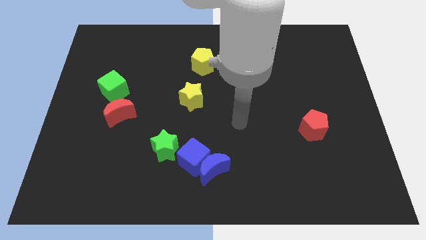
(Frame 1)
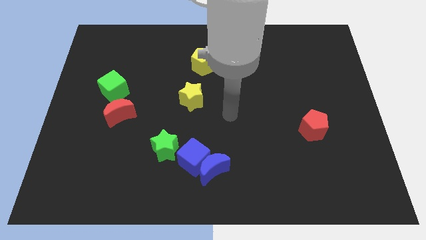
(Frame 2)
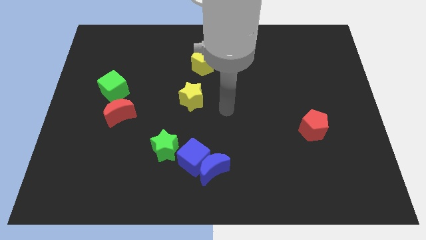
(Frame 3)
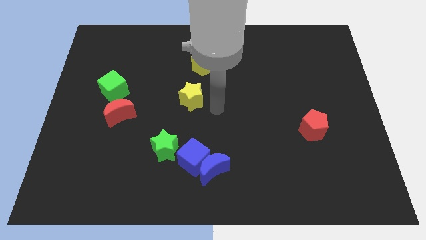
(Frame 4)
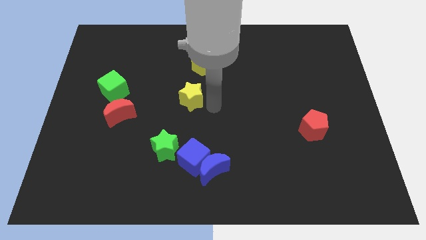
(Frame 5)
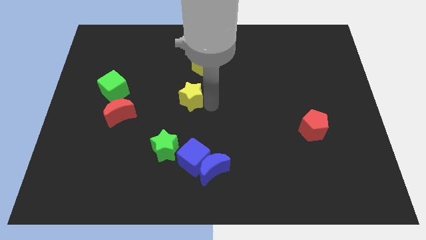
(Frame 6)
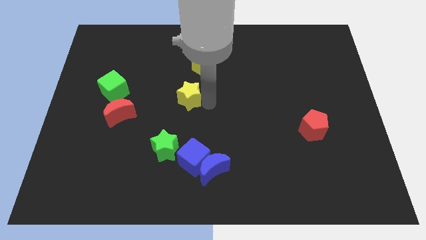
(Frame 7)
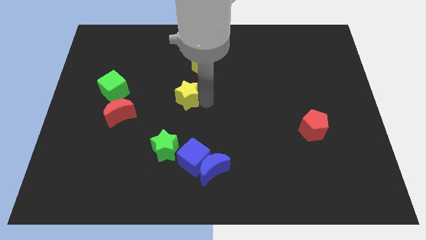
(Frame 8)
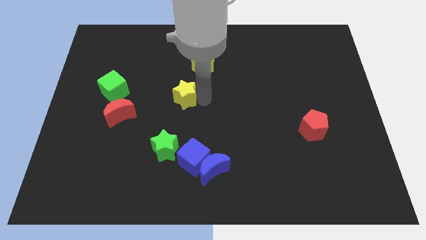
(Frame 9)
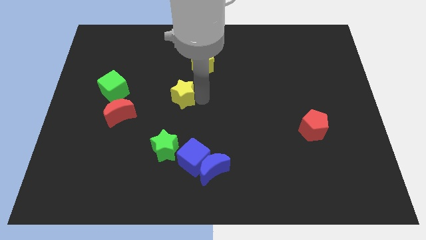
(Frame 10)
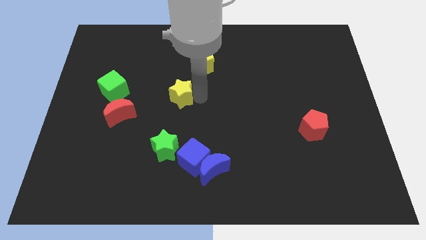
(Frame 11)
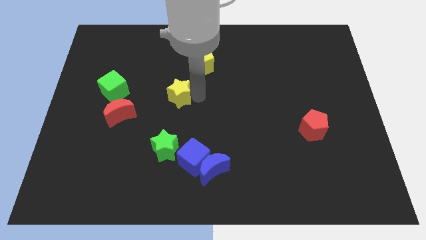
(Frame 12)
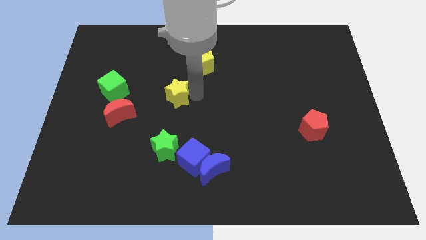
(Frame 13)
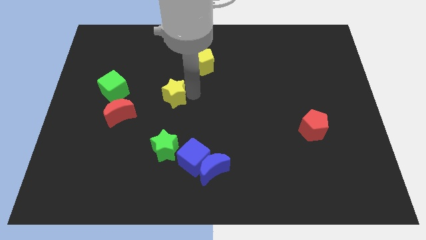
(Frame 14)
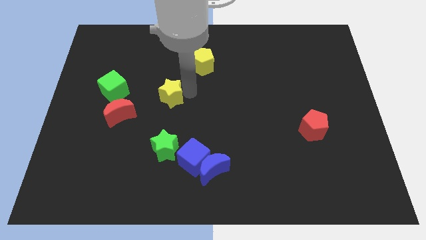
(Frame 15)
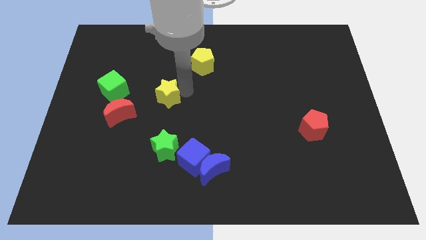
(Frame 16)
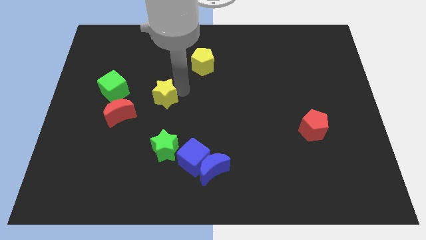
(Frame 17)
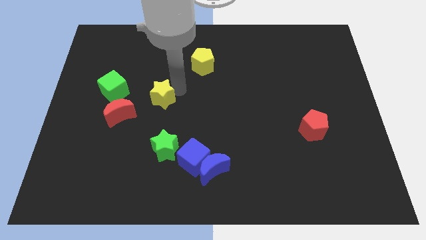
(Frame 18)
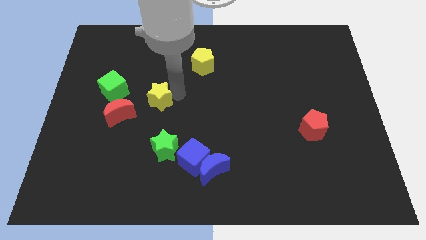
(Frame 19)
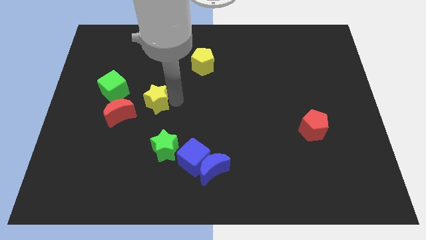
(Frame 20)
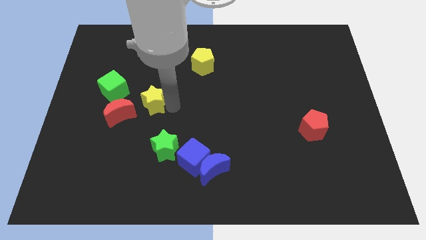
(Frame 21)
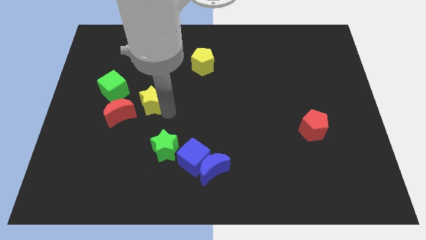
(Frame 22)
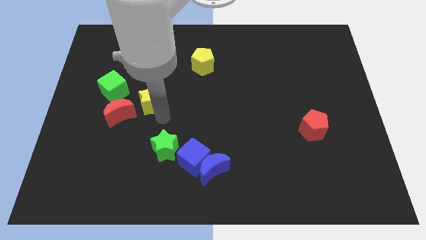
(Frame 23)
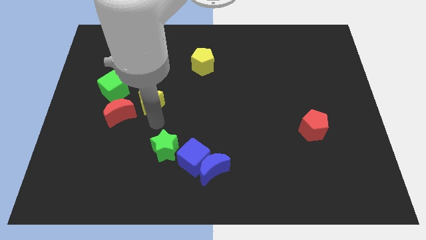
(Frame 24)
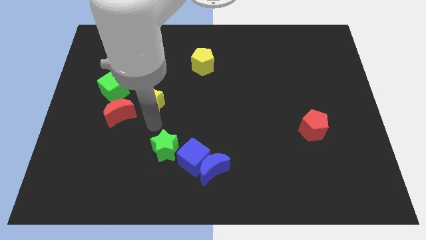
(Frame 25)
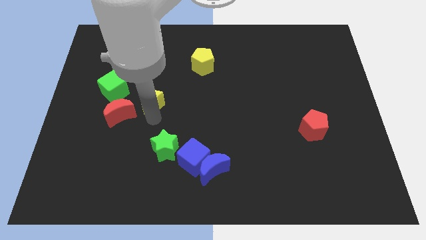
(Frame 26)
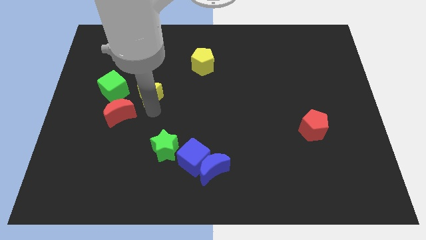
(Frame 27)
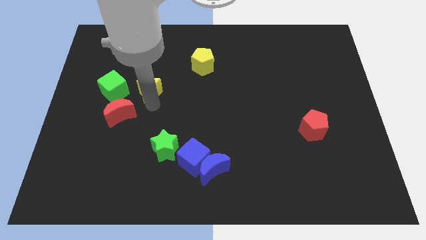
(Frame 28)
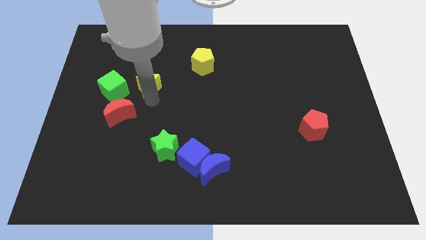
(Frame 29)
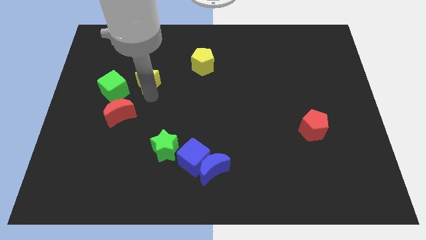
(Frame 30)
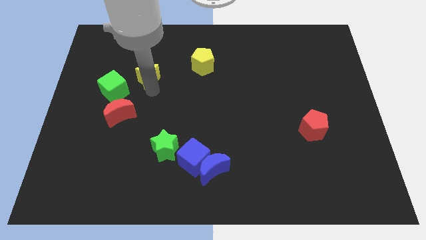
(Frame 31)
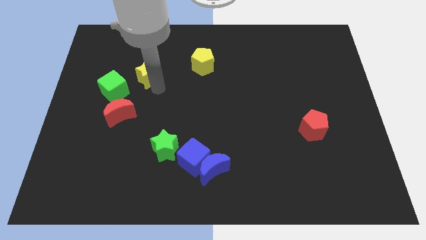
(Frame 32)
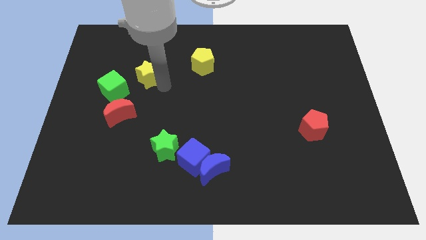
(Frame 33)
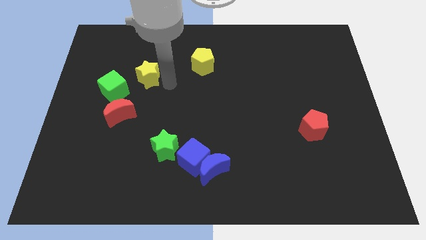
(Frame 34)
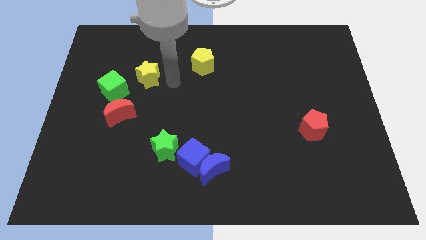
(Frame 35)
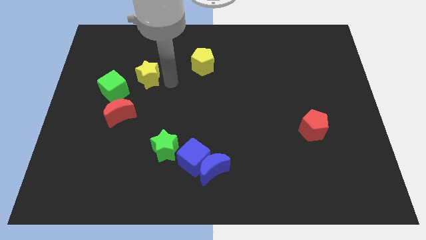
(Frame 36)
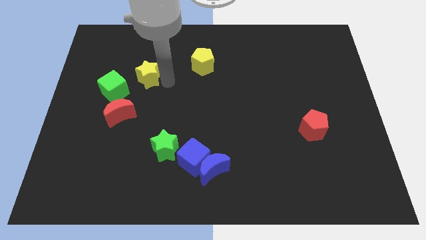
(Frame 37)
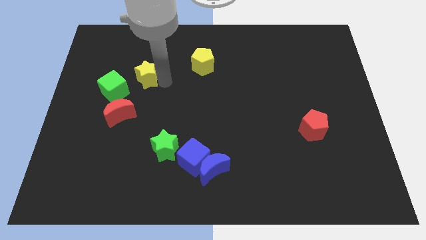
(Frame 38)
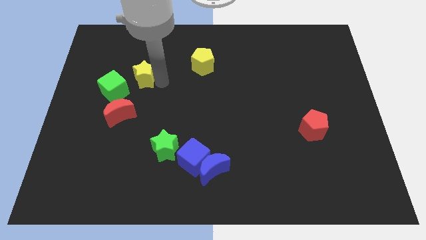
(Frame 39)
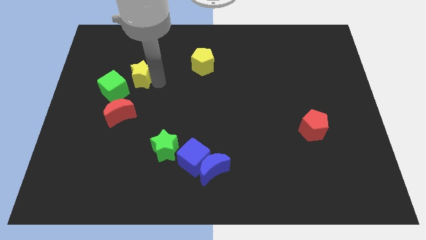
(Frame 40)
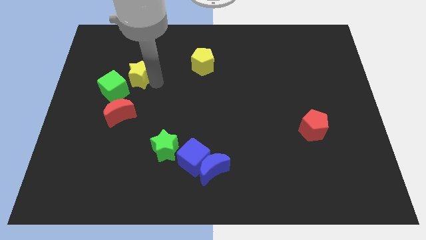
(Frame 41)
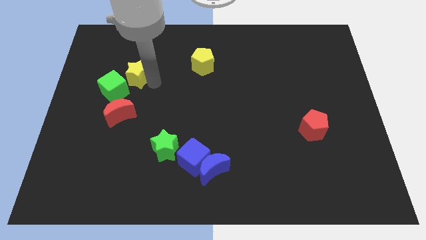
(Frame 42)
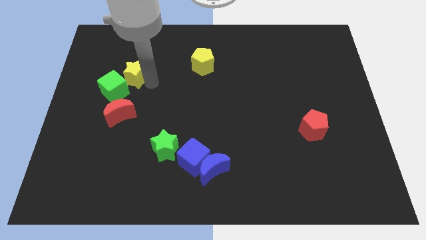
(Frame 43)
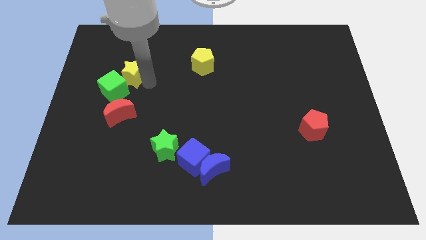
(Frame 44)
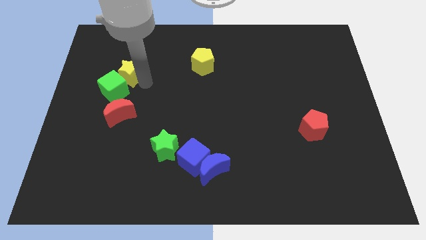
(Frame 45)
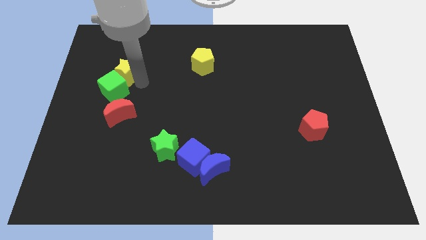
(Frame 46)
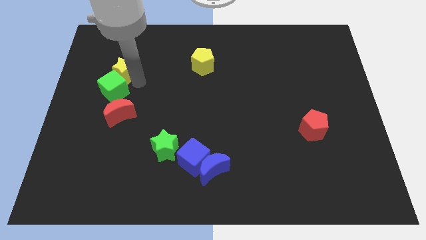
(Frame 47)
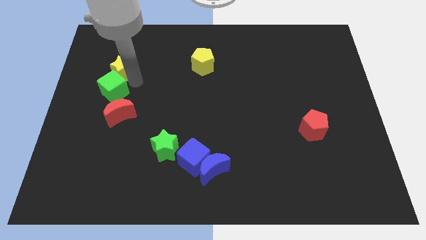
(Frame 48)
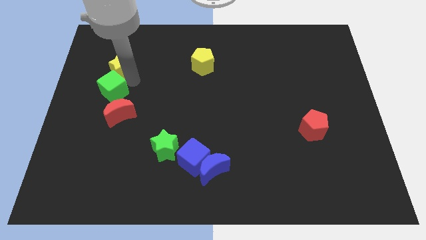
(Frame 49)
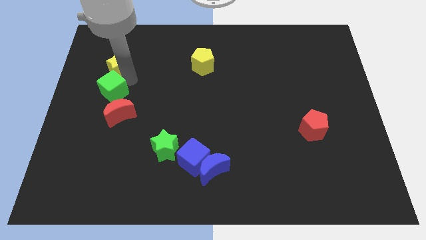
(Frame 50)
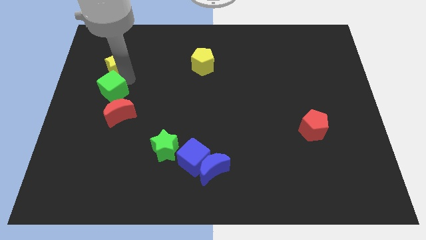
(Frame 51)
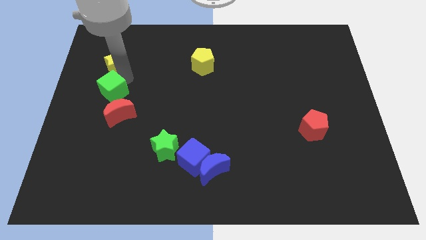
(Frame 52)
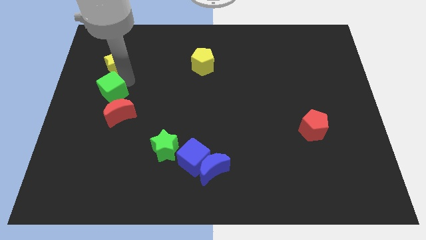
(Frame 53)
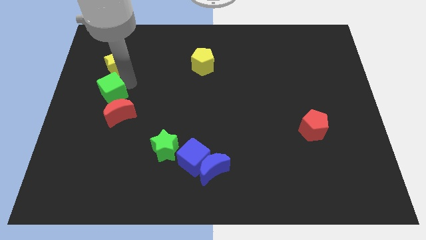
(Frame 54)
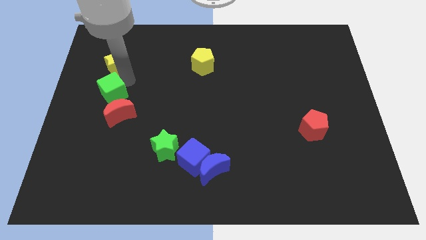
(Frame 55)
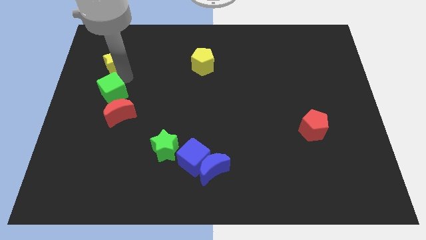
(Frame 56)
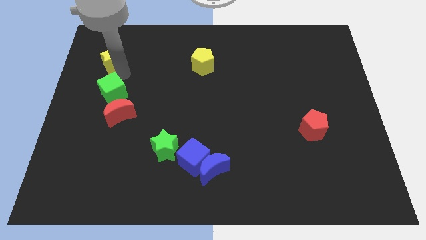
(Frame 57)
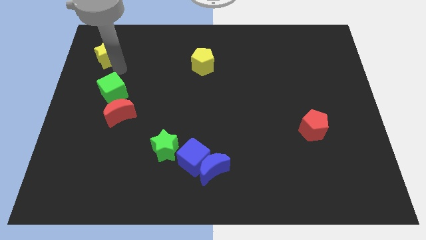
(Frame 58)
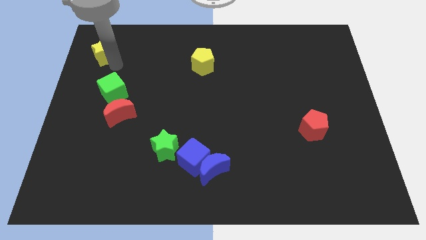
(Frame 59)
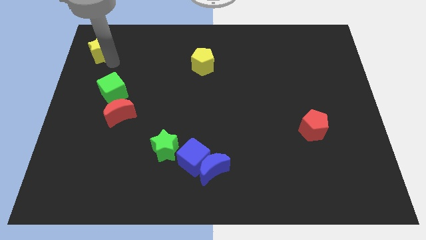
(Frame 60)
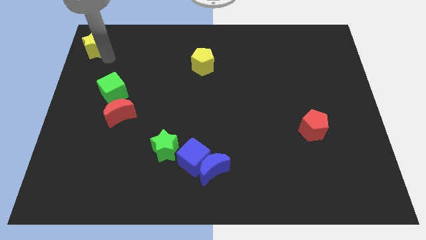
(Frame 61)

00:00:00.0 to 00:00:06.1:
push the yellow star to the top left corner

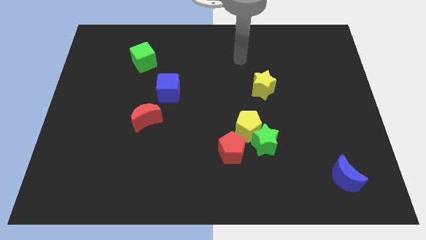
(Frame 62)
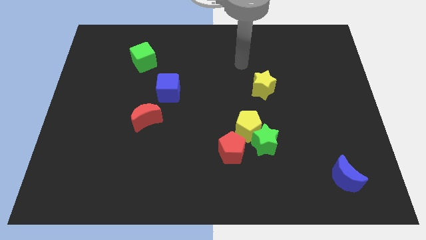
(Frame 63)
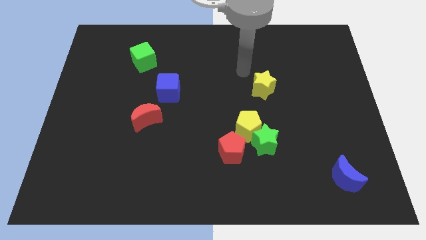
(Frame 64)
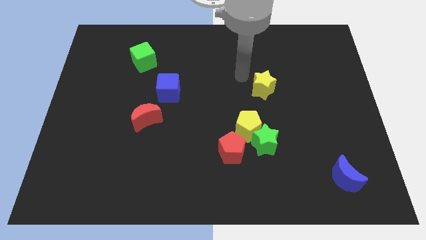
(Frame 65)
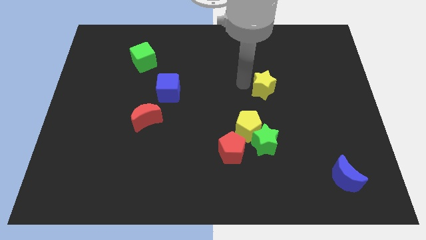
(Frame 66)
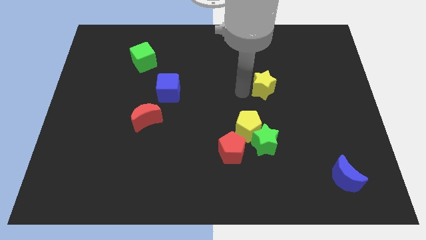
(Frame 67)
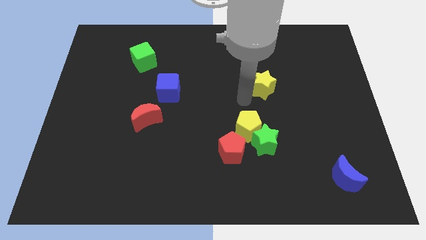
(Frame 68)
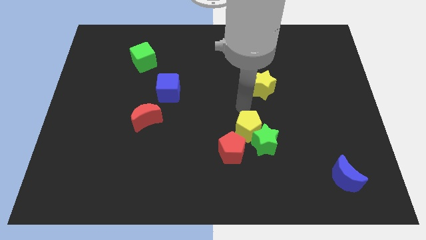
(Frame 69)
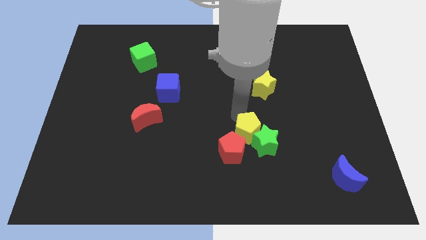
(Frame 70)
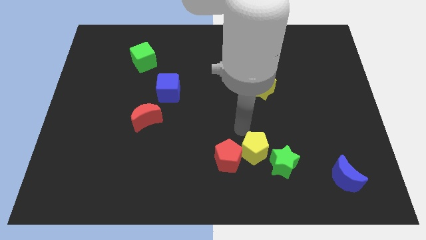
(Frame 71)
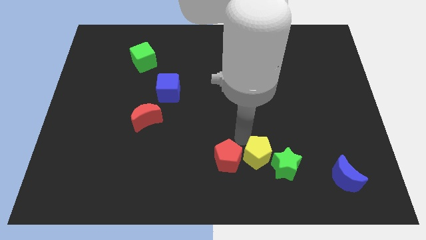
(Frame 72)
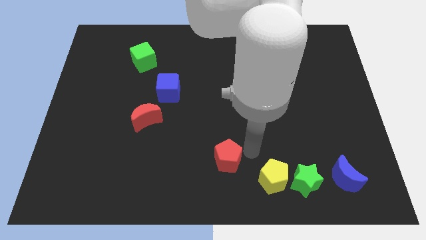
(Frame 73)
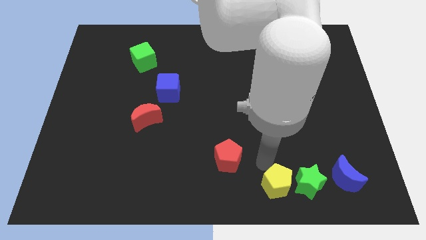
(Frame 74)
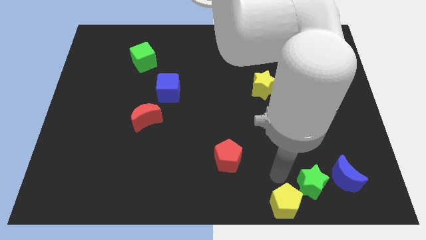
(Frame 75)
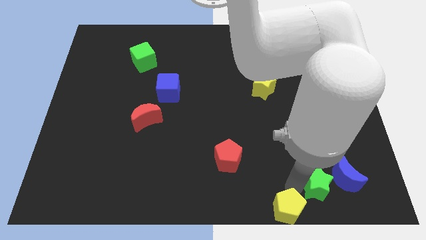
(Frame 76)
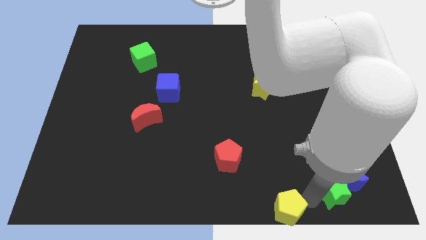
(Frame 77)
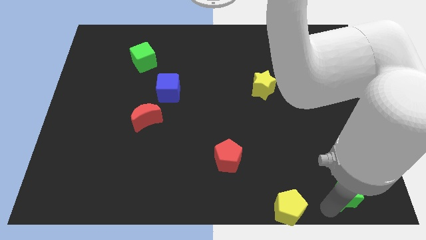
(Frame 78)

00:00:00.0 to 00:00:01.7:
move the green star to the bottom right of the board
